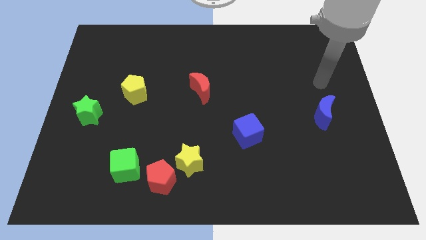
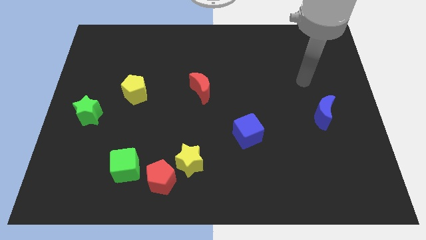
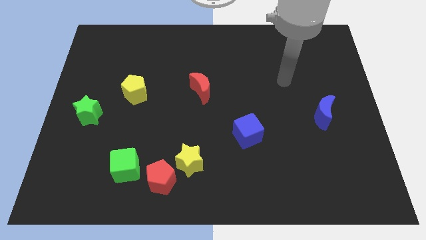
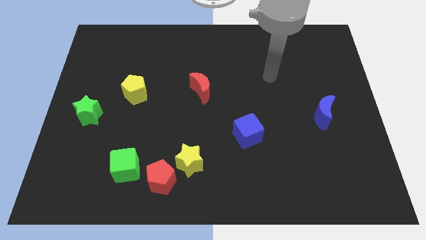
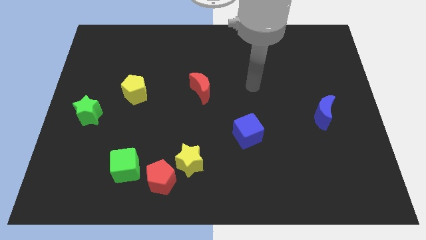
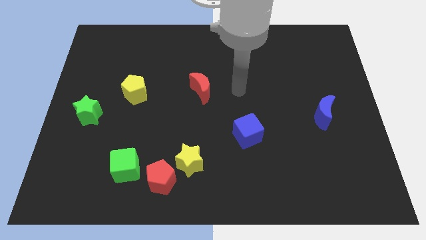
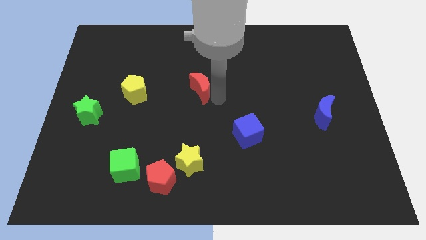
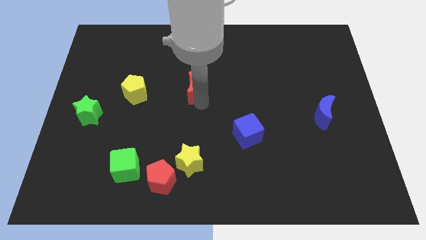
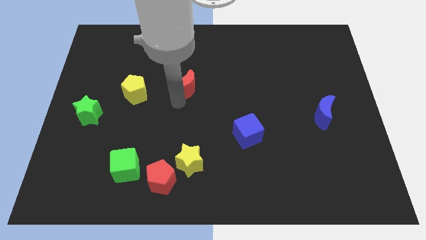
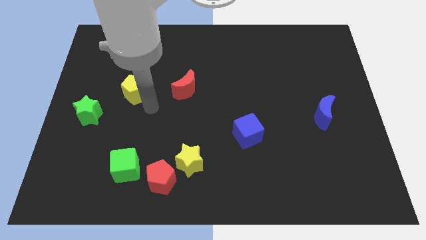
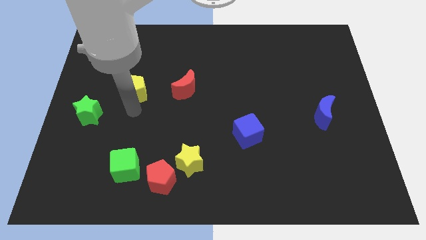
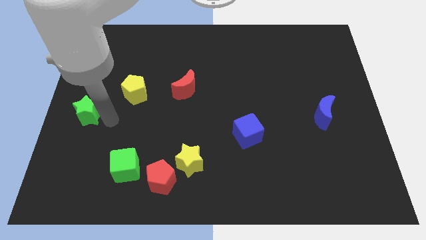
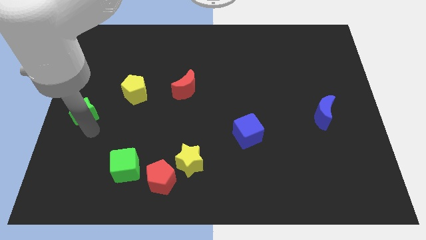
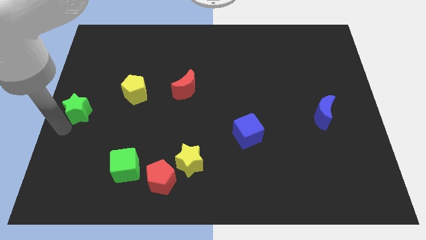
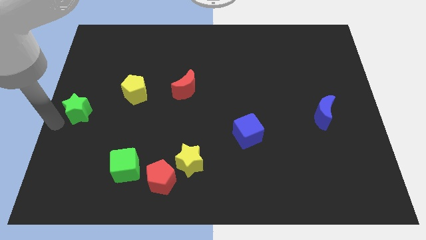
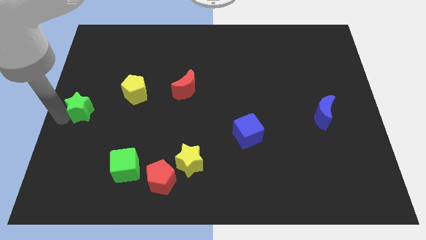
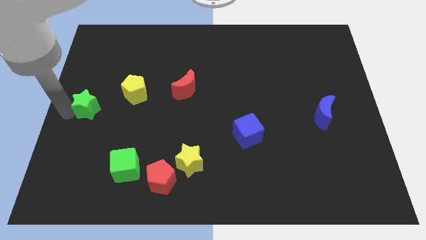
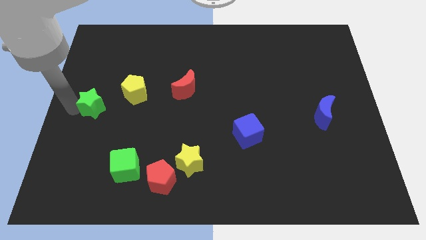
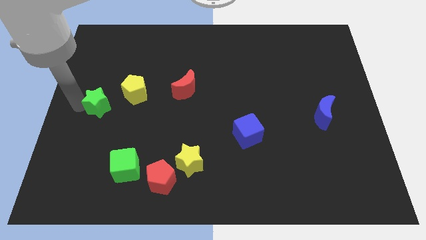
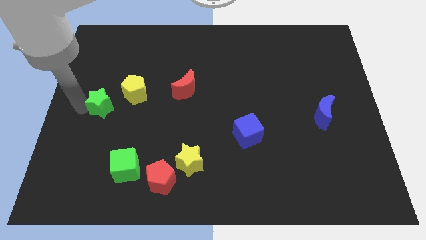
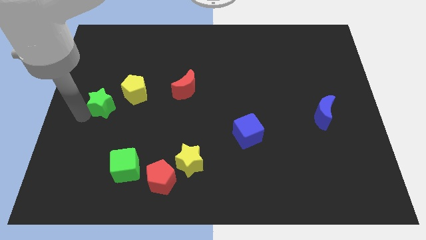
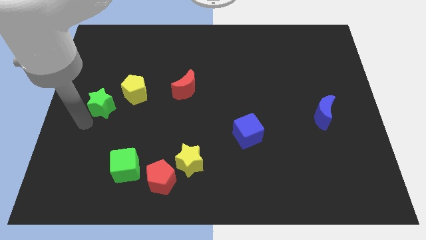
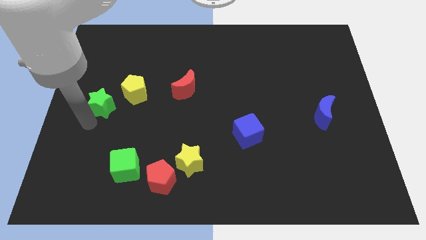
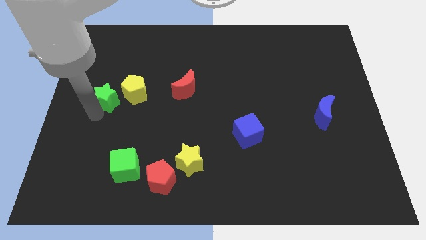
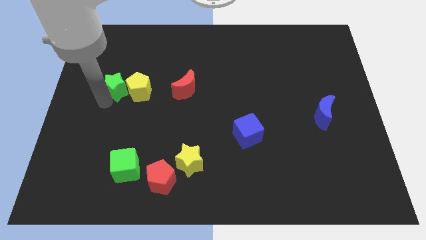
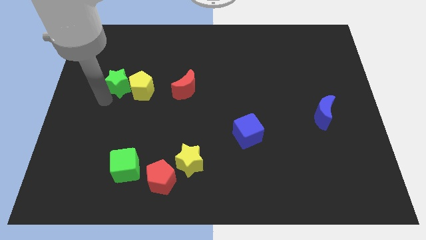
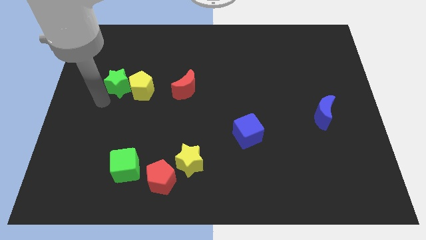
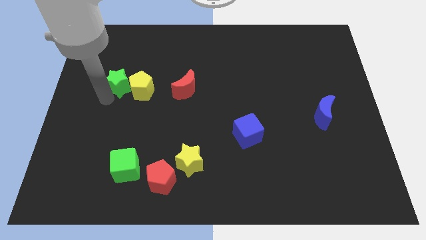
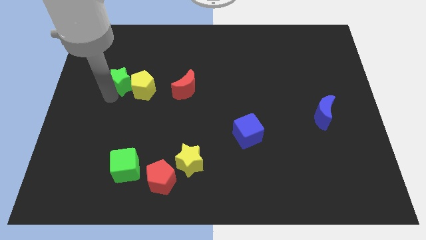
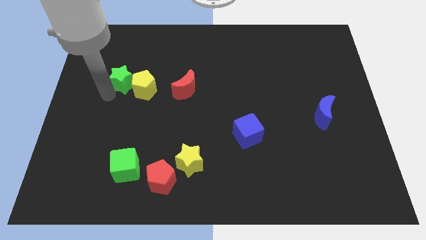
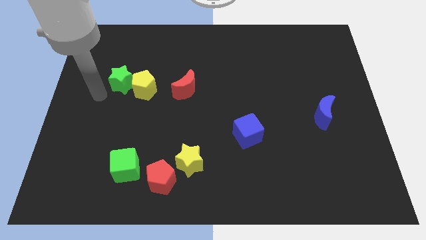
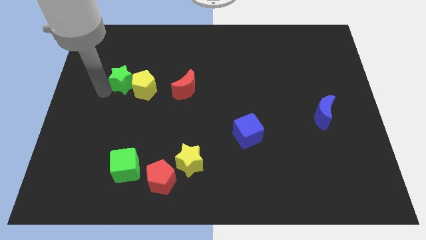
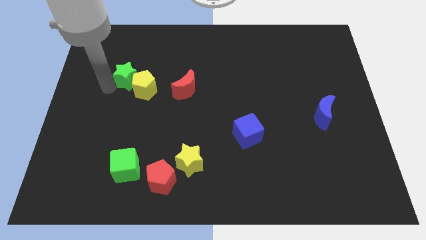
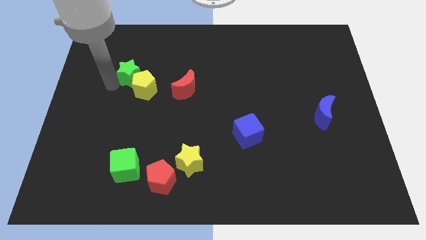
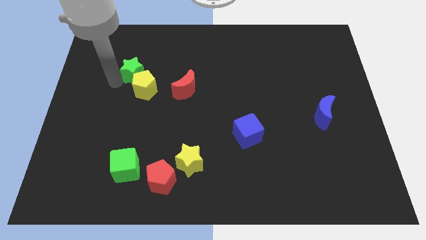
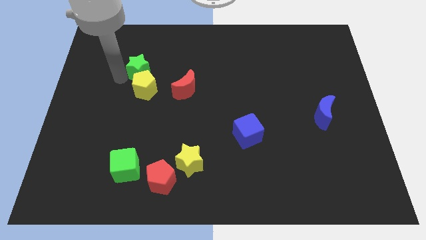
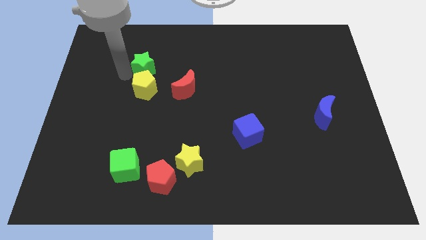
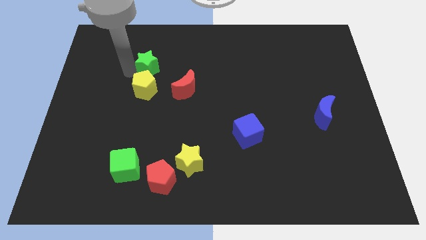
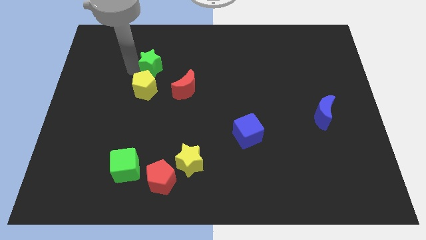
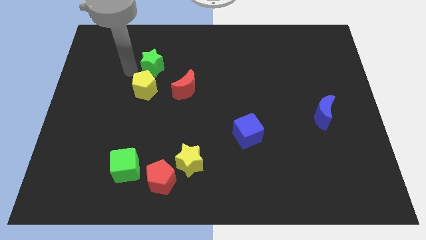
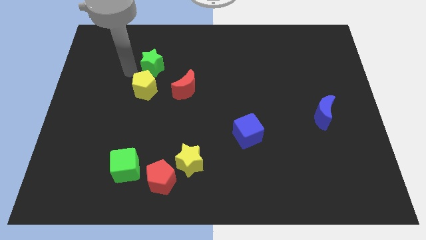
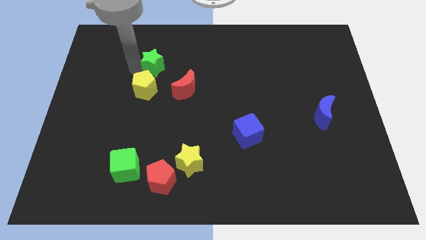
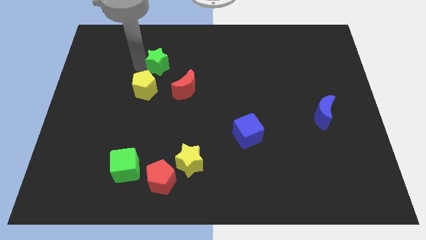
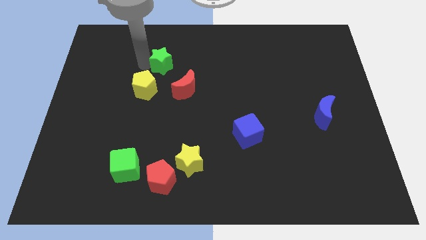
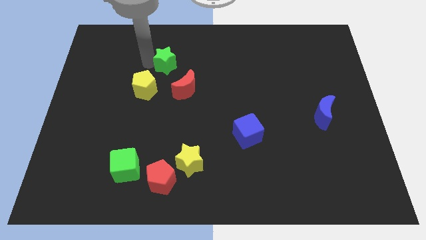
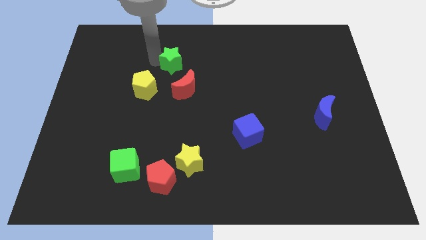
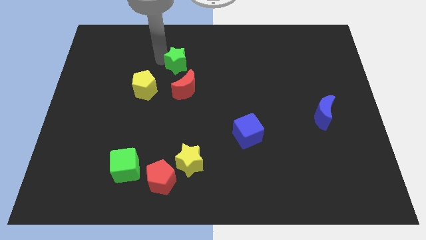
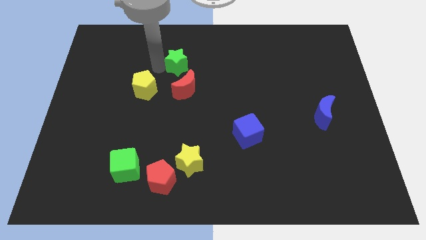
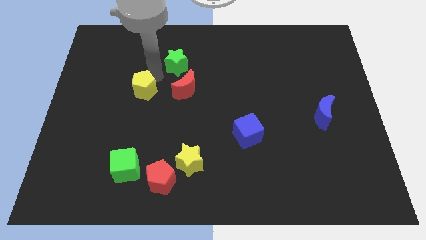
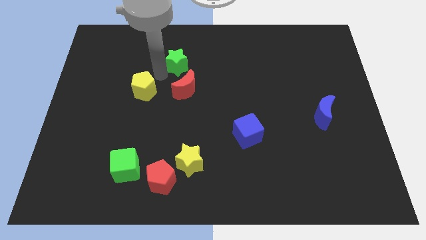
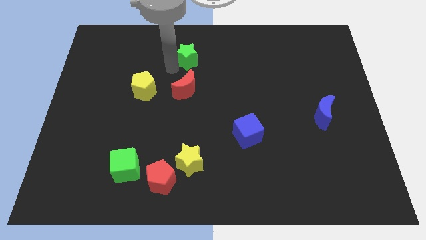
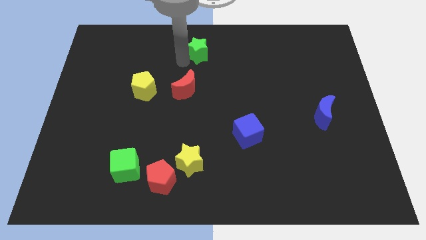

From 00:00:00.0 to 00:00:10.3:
put the green star to the top side

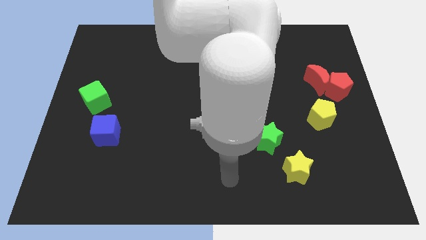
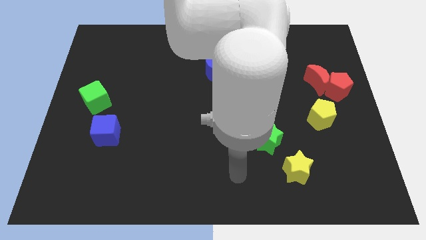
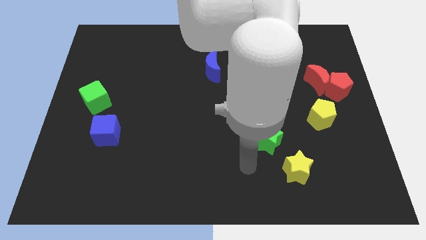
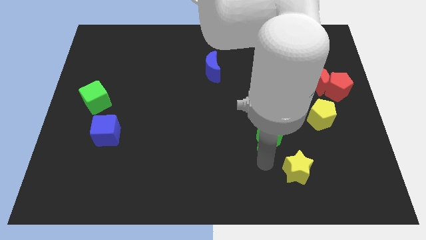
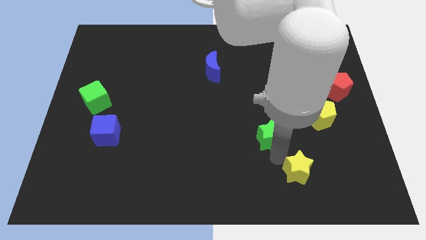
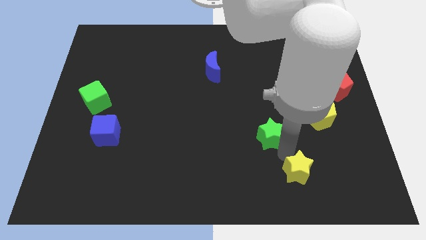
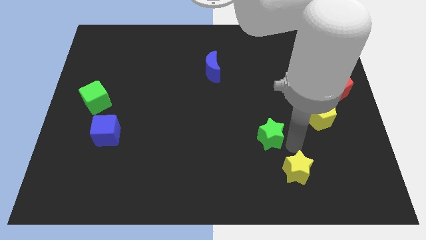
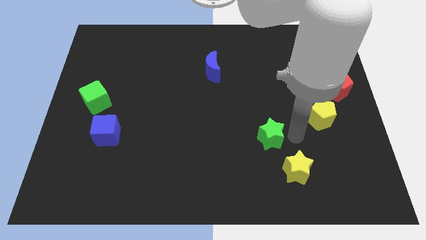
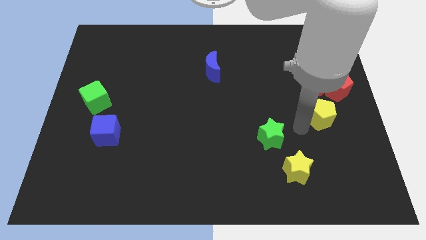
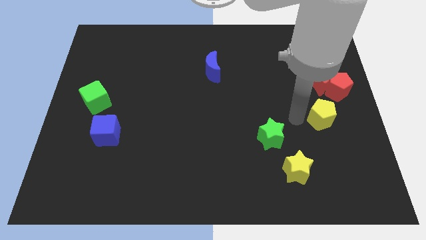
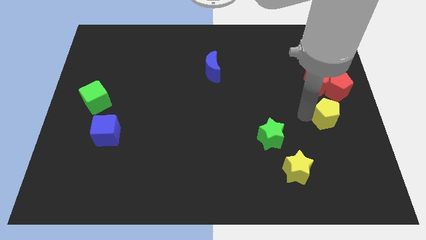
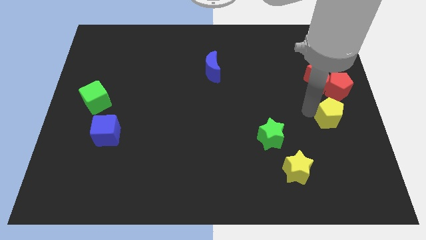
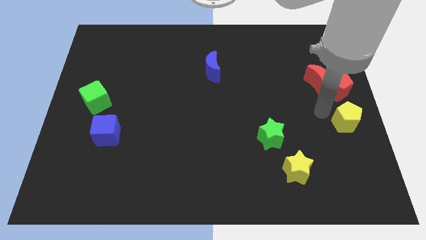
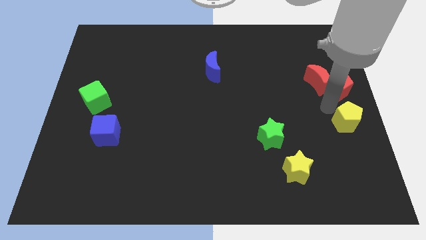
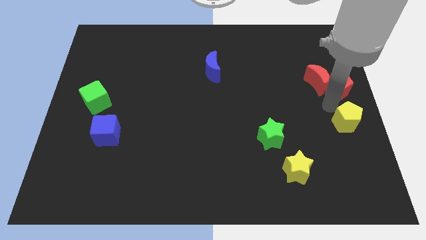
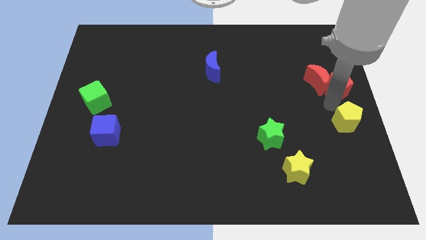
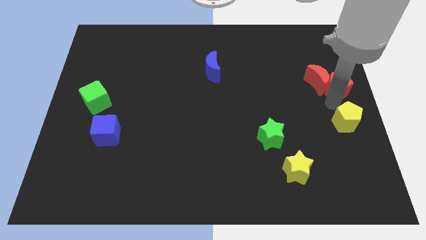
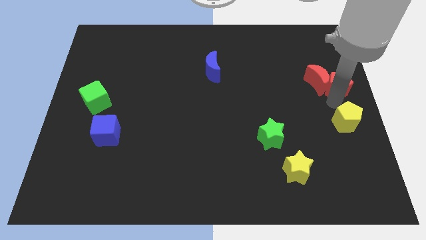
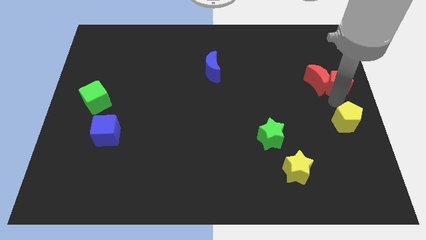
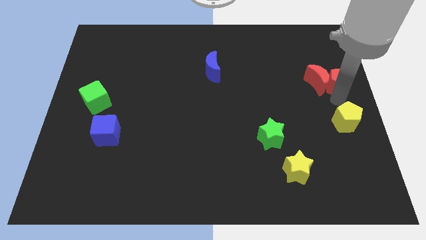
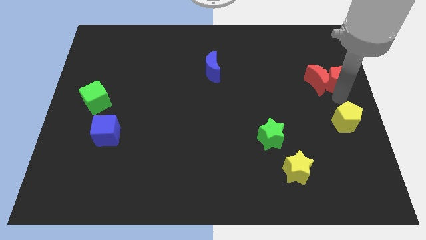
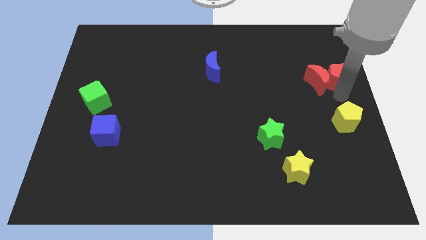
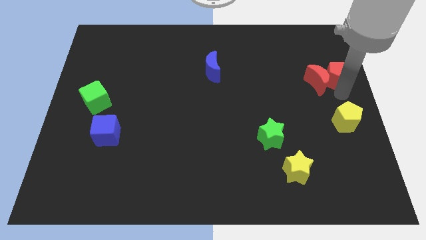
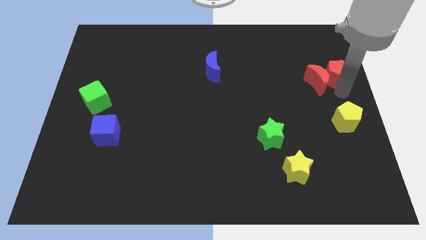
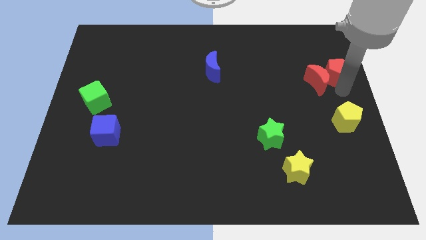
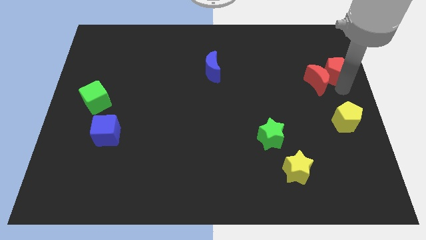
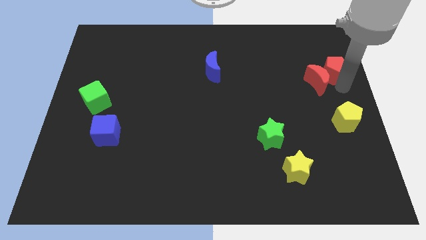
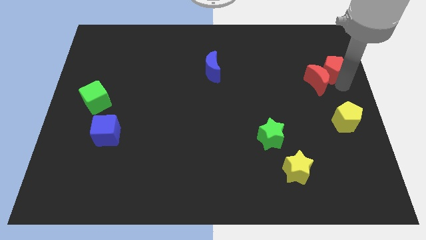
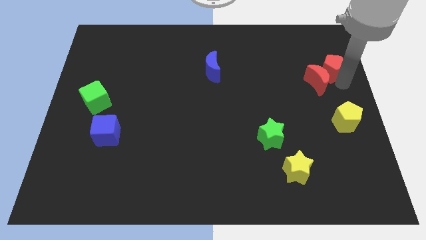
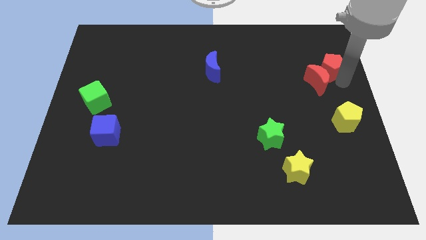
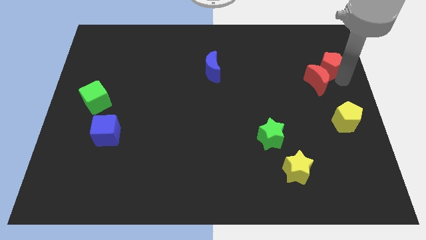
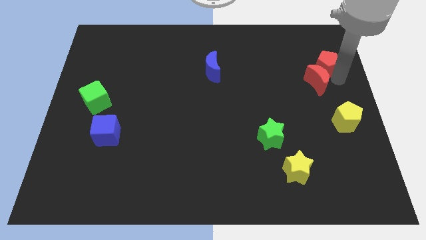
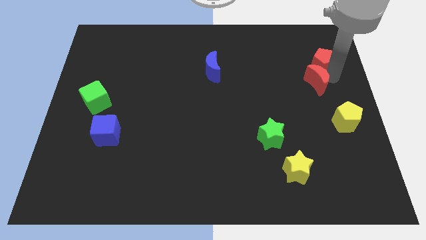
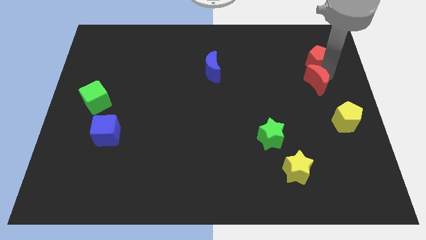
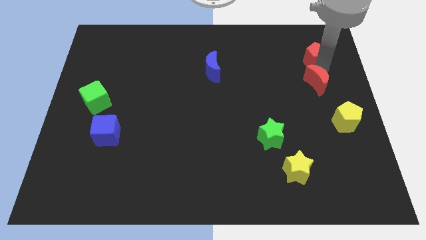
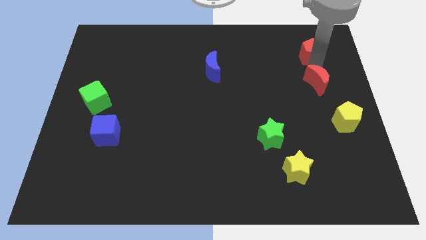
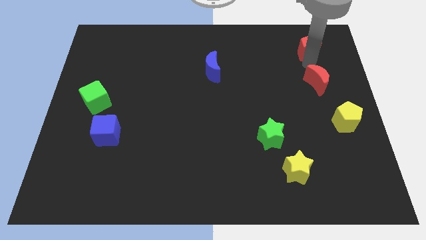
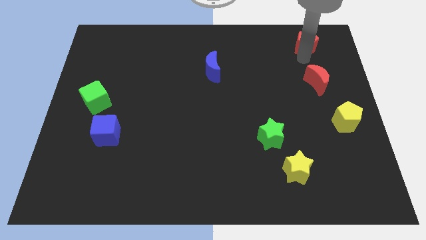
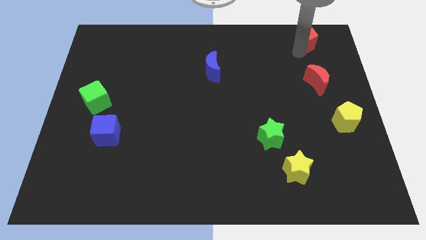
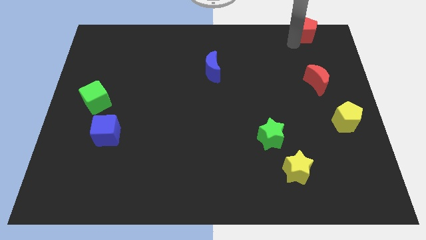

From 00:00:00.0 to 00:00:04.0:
put the red pentagon to the top right of the board
